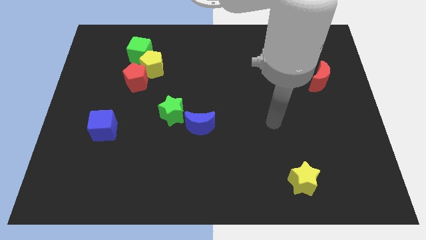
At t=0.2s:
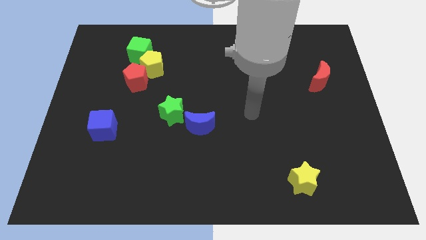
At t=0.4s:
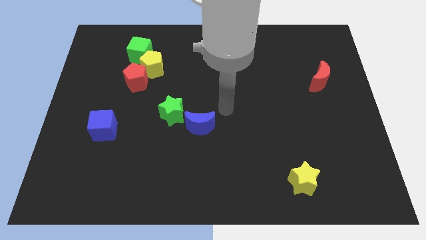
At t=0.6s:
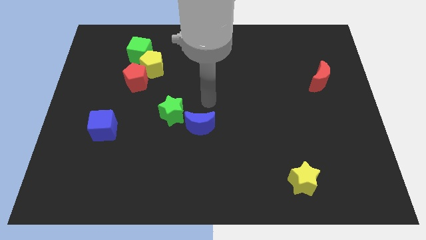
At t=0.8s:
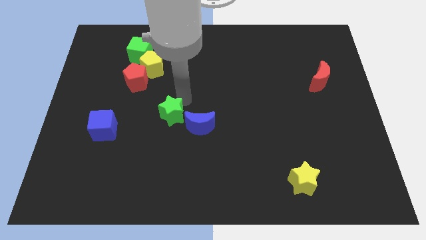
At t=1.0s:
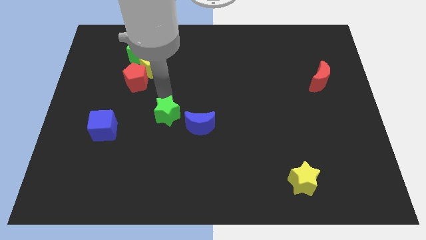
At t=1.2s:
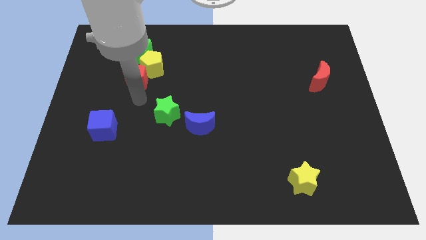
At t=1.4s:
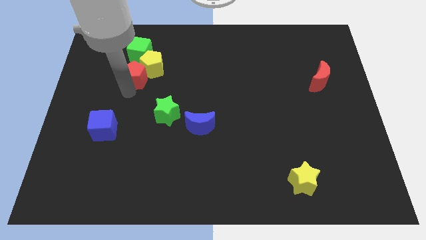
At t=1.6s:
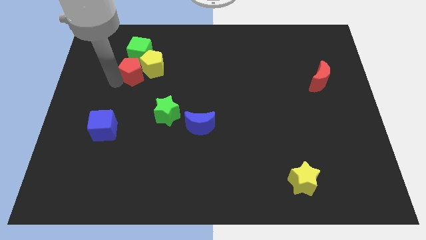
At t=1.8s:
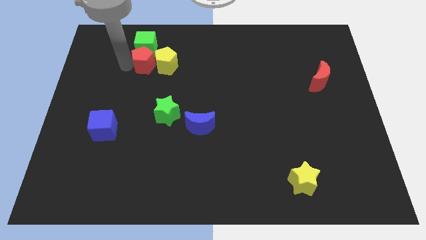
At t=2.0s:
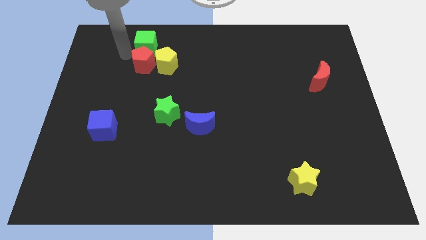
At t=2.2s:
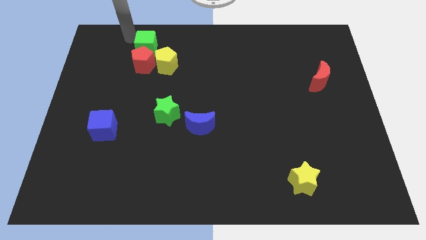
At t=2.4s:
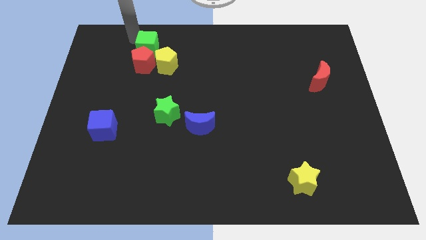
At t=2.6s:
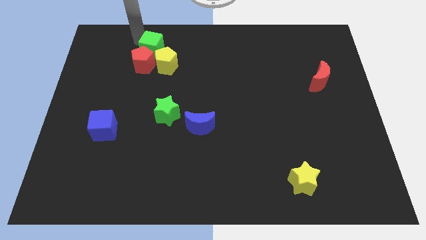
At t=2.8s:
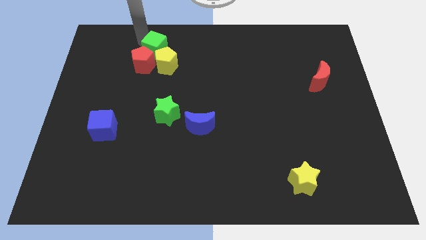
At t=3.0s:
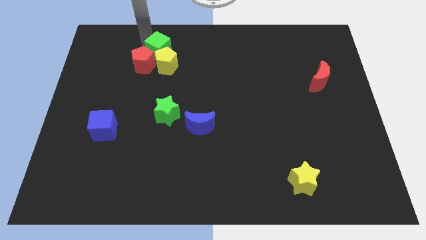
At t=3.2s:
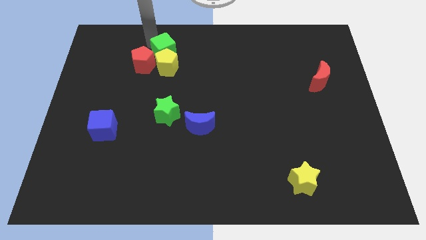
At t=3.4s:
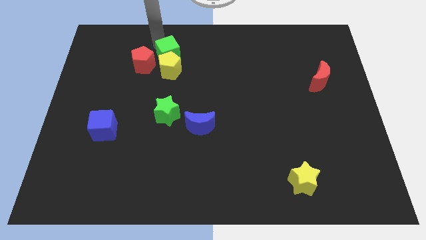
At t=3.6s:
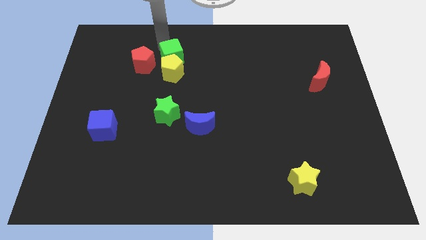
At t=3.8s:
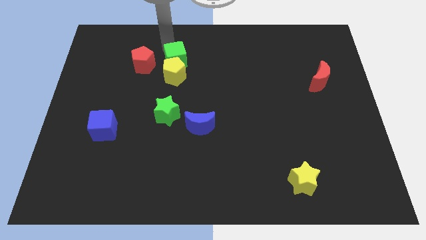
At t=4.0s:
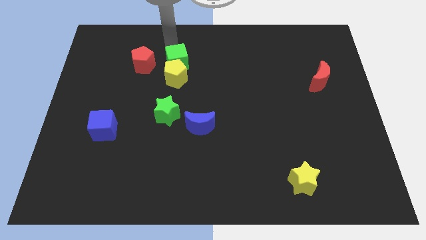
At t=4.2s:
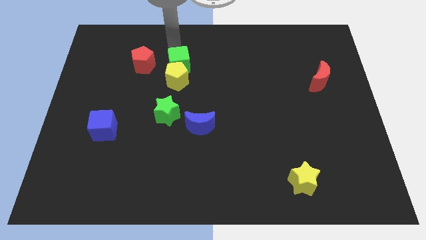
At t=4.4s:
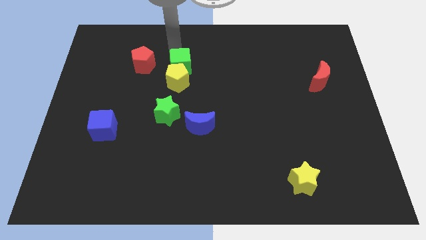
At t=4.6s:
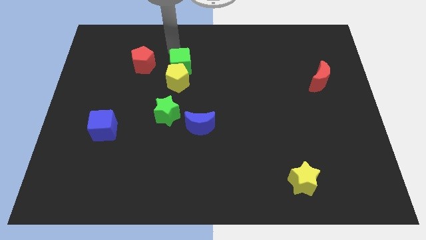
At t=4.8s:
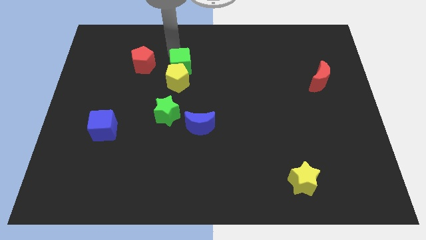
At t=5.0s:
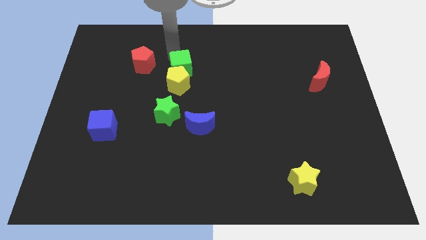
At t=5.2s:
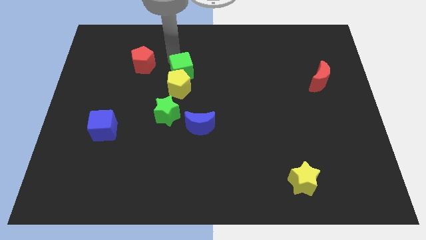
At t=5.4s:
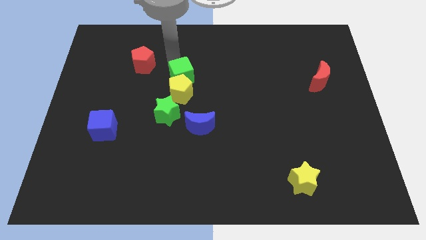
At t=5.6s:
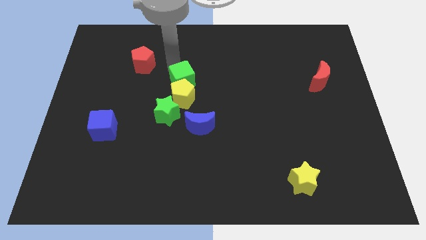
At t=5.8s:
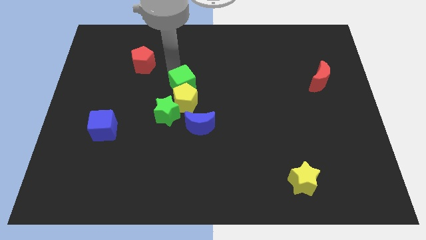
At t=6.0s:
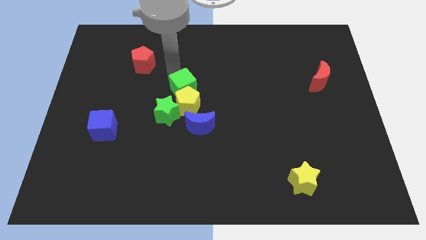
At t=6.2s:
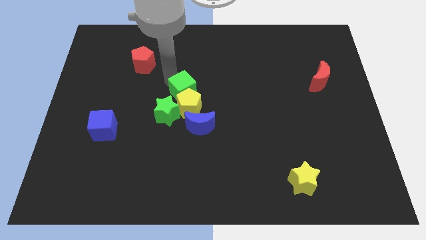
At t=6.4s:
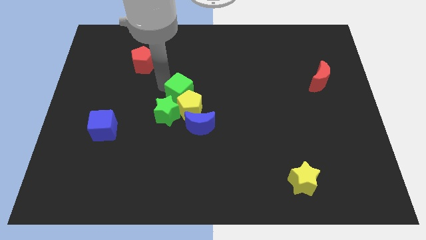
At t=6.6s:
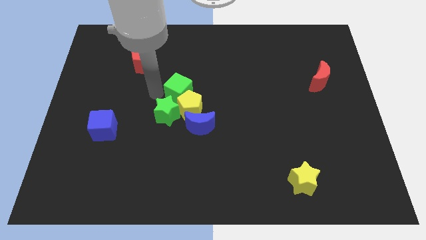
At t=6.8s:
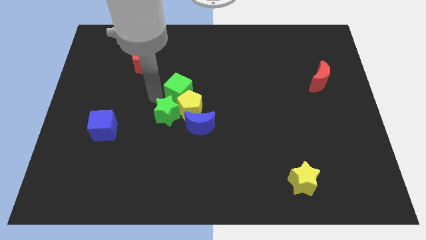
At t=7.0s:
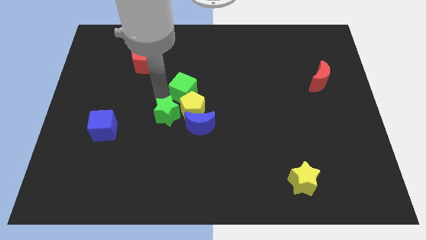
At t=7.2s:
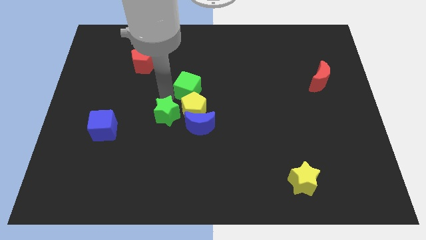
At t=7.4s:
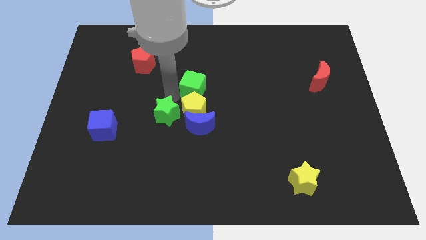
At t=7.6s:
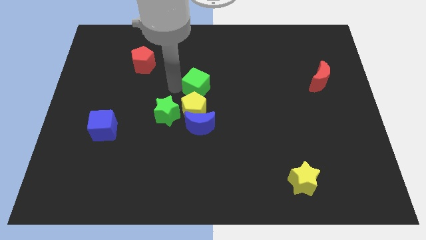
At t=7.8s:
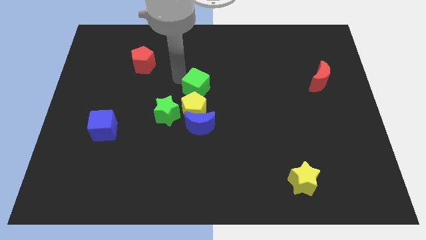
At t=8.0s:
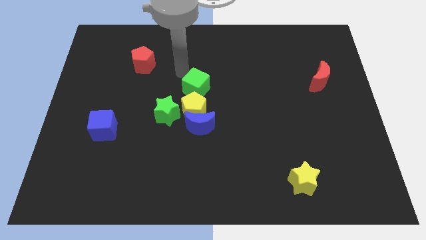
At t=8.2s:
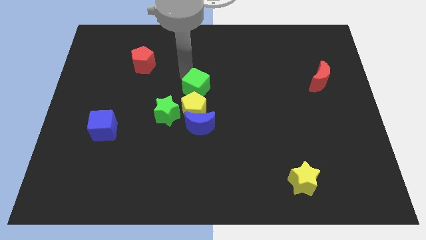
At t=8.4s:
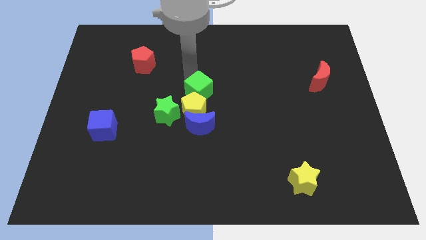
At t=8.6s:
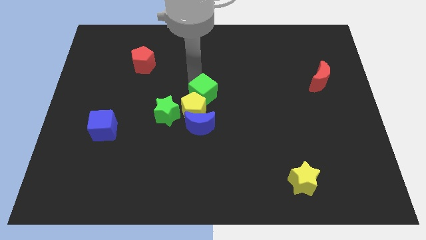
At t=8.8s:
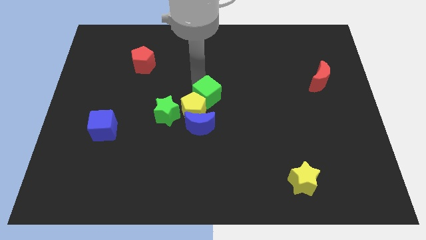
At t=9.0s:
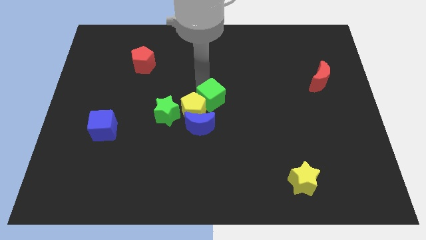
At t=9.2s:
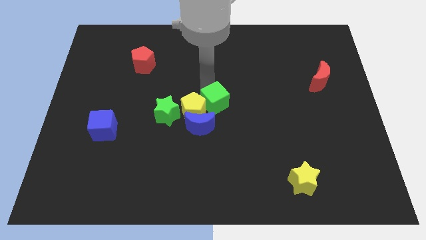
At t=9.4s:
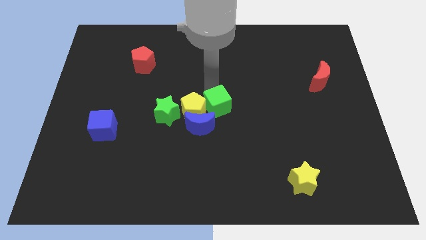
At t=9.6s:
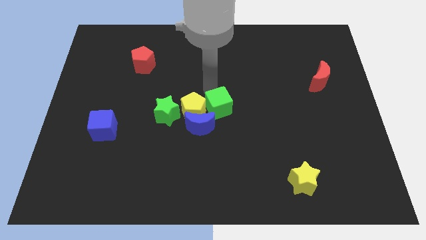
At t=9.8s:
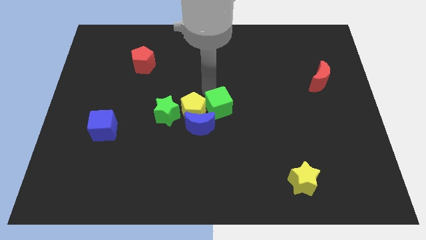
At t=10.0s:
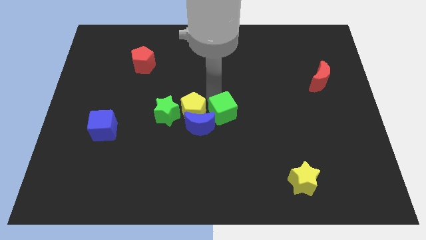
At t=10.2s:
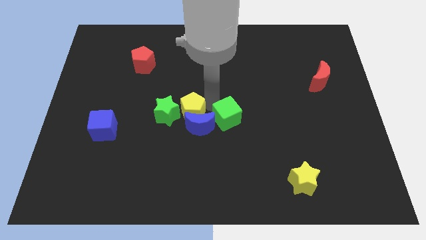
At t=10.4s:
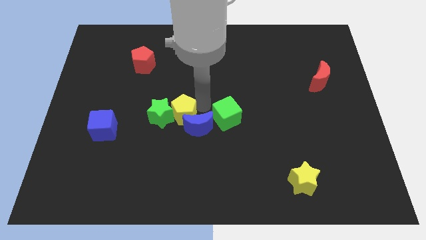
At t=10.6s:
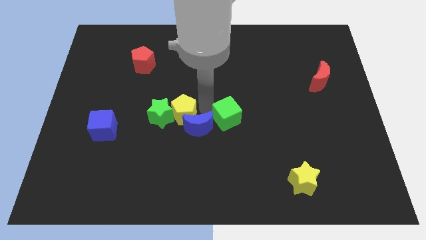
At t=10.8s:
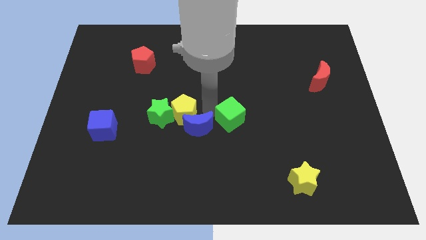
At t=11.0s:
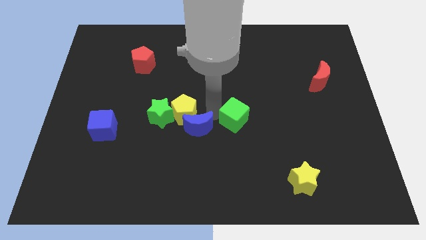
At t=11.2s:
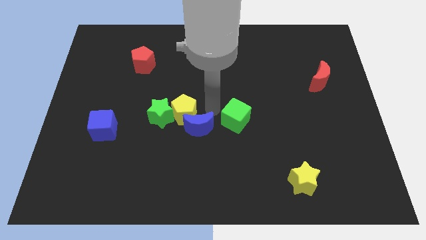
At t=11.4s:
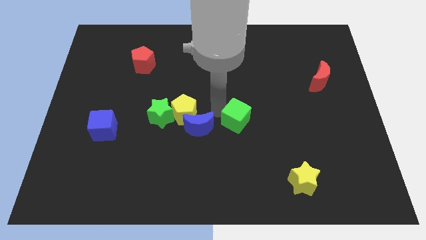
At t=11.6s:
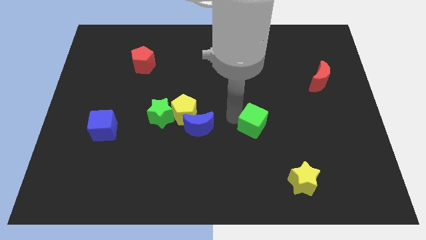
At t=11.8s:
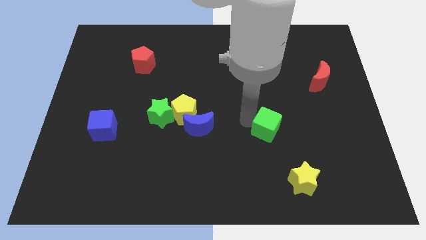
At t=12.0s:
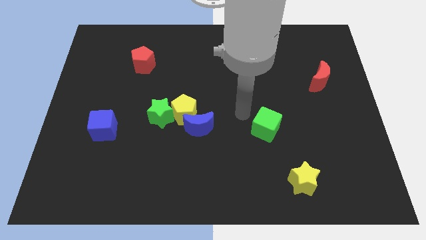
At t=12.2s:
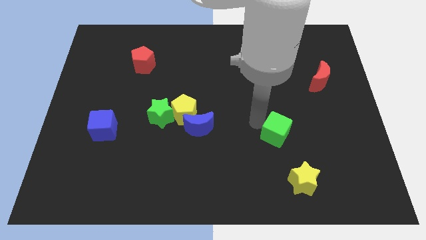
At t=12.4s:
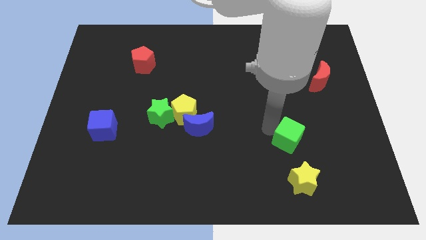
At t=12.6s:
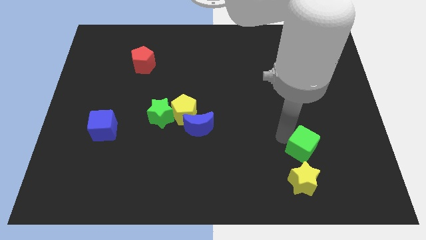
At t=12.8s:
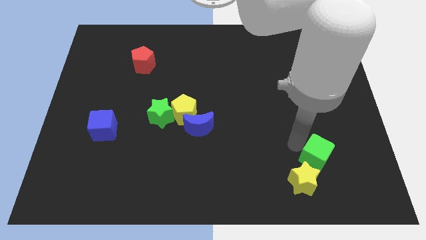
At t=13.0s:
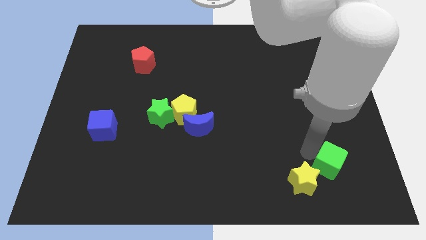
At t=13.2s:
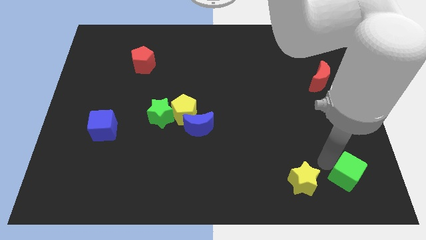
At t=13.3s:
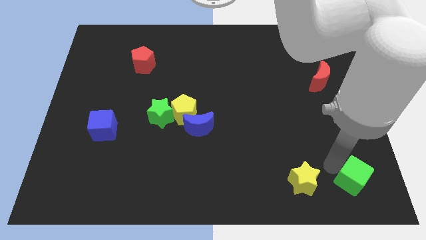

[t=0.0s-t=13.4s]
slide the green cube to the bottom right

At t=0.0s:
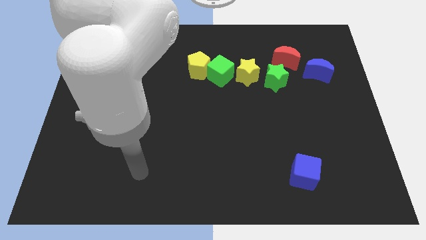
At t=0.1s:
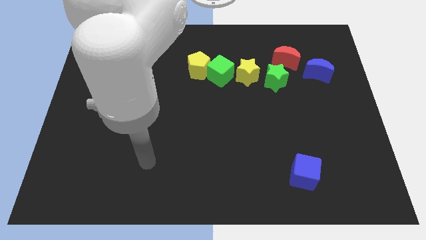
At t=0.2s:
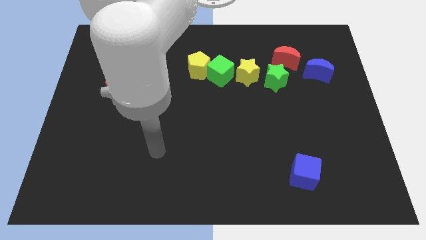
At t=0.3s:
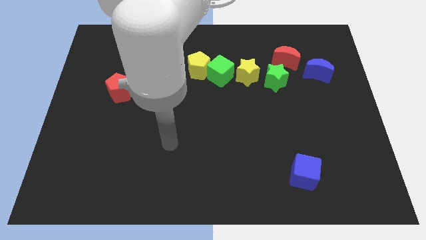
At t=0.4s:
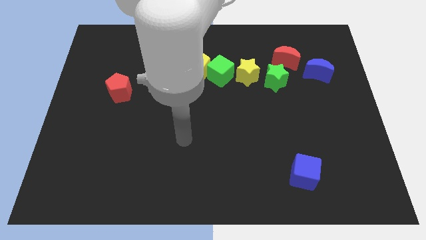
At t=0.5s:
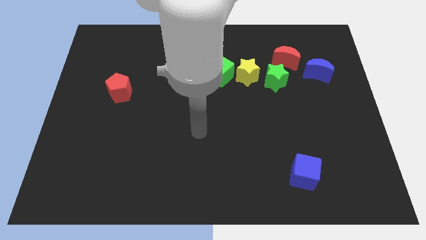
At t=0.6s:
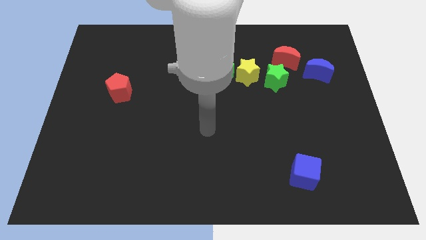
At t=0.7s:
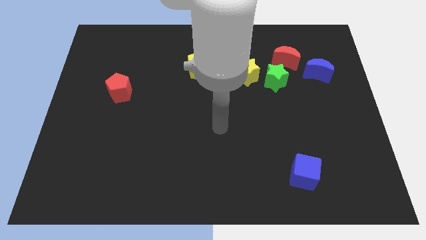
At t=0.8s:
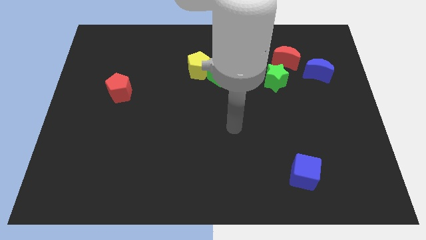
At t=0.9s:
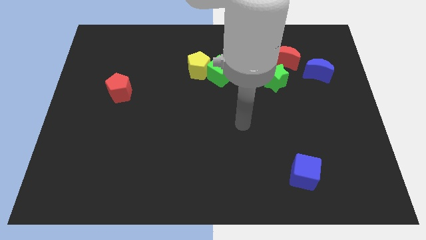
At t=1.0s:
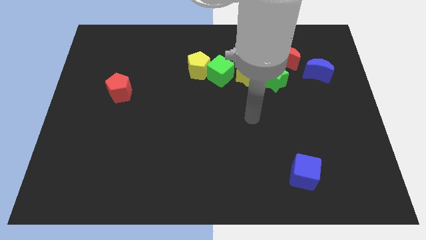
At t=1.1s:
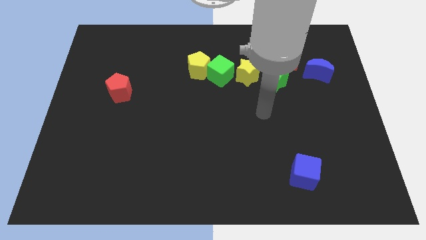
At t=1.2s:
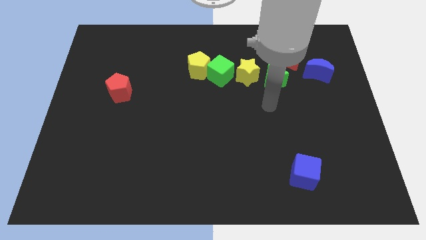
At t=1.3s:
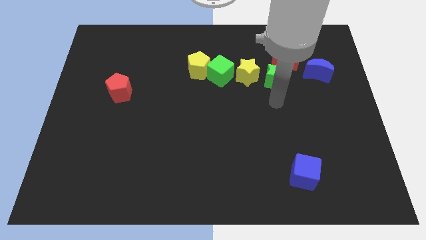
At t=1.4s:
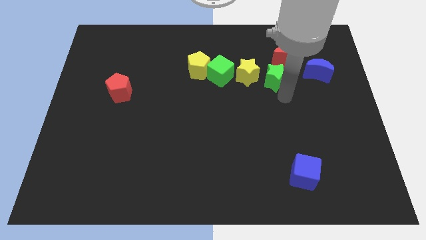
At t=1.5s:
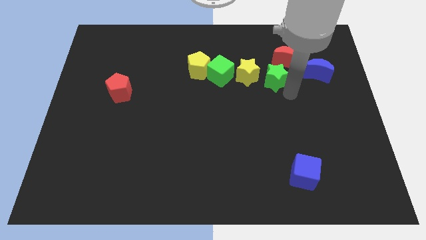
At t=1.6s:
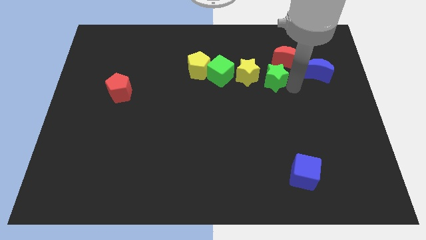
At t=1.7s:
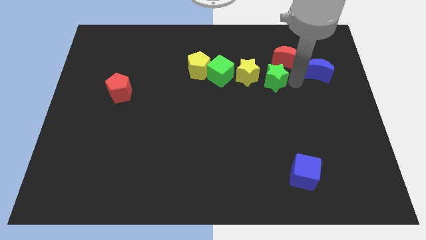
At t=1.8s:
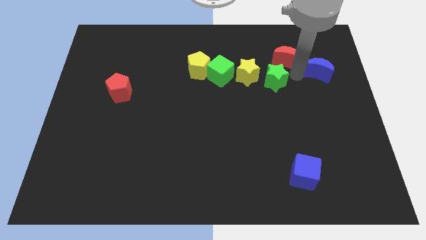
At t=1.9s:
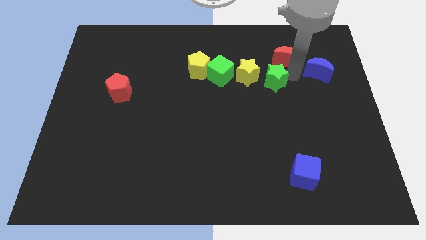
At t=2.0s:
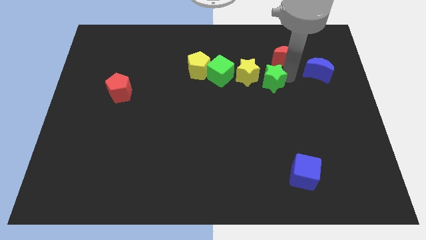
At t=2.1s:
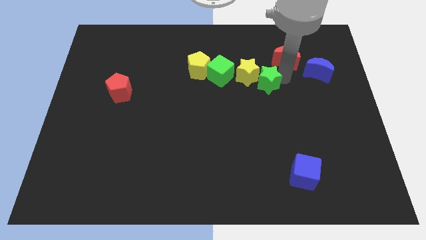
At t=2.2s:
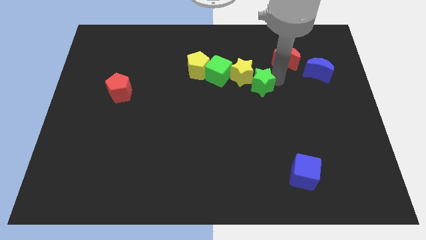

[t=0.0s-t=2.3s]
slide the green star to the middle of the board
